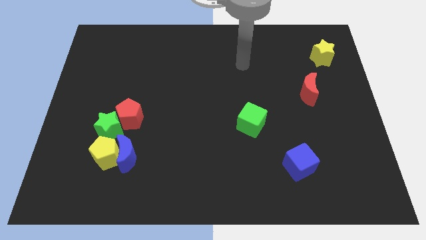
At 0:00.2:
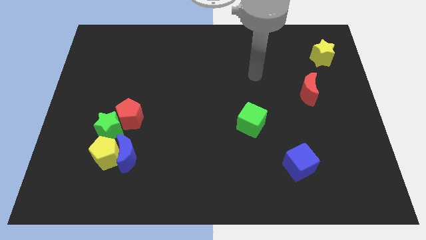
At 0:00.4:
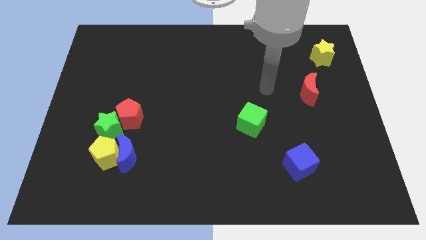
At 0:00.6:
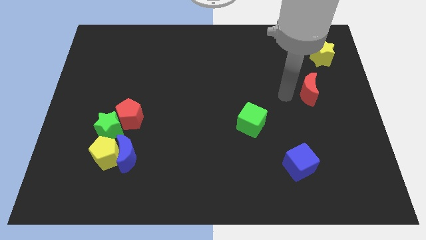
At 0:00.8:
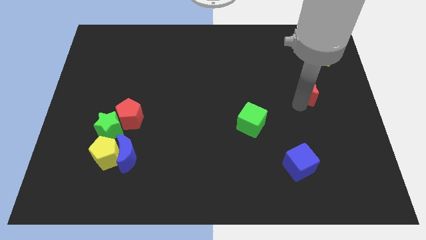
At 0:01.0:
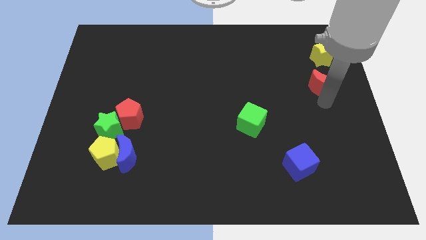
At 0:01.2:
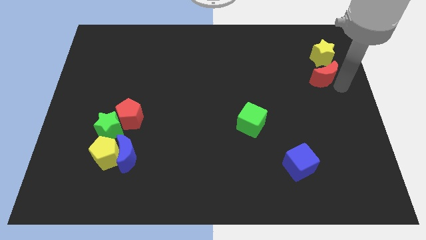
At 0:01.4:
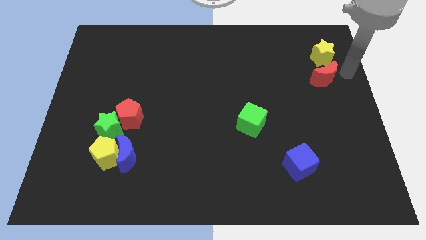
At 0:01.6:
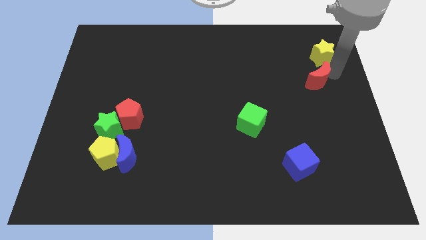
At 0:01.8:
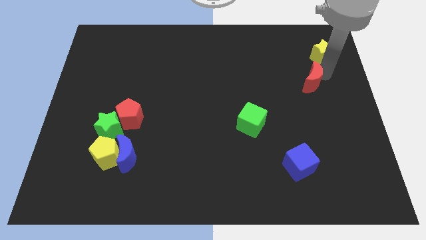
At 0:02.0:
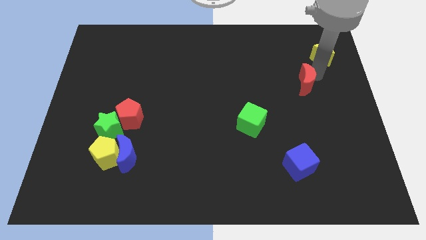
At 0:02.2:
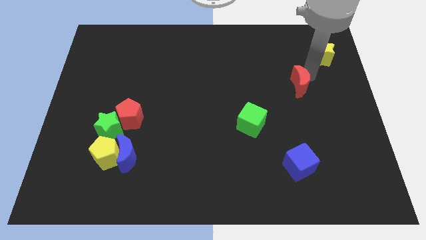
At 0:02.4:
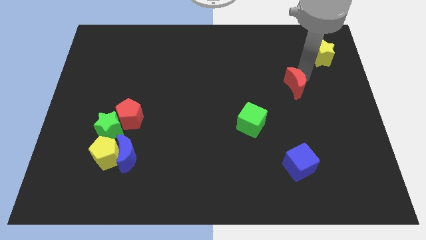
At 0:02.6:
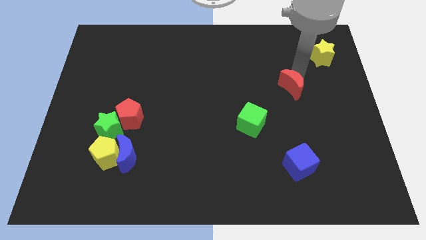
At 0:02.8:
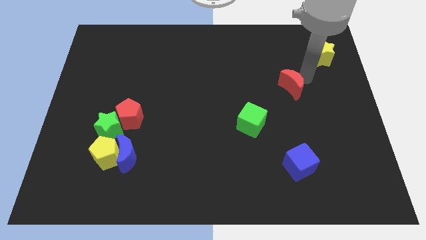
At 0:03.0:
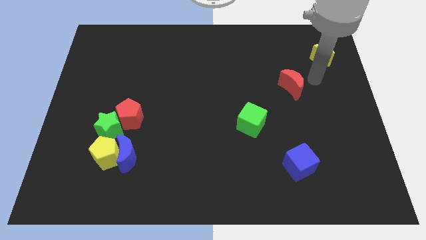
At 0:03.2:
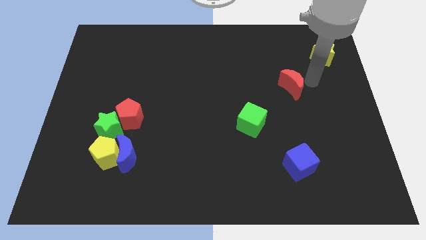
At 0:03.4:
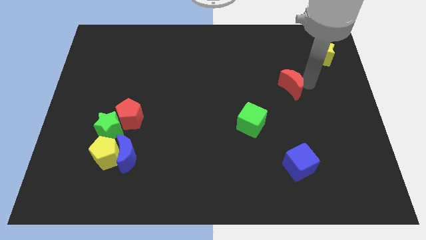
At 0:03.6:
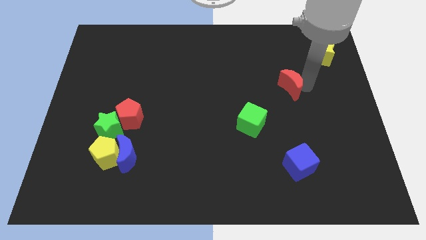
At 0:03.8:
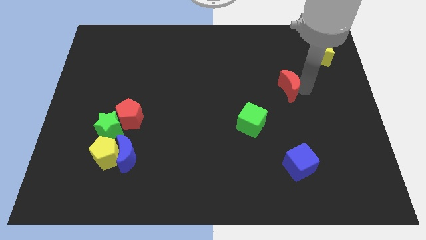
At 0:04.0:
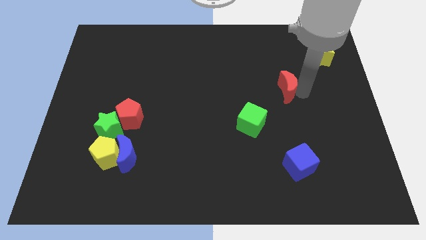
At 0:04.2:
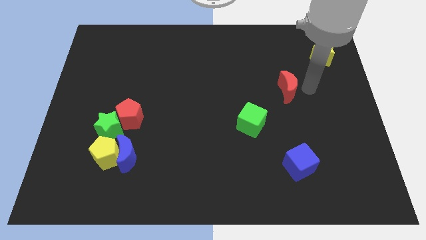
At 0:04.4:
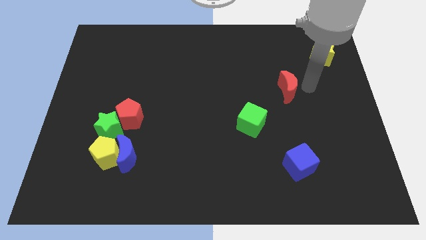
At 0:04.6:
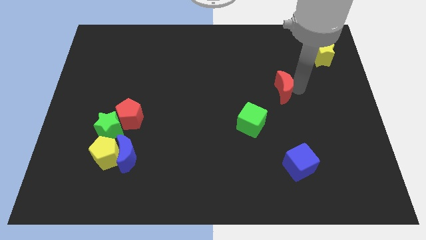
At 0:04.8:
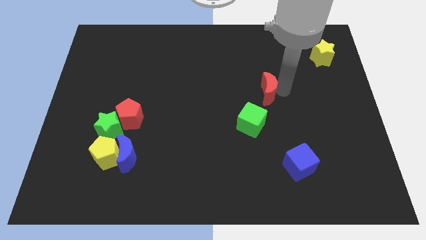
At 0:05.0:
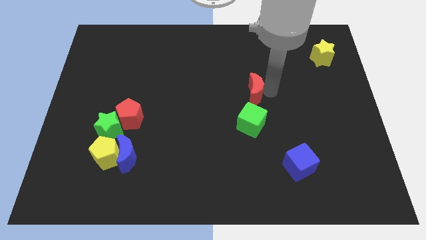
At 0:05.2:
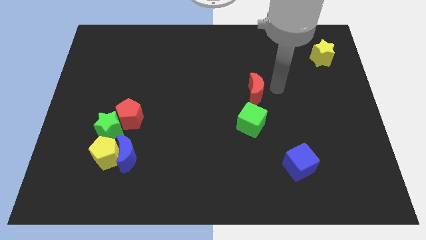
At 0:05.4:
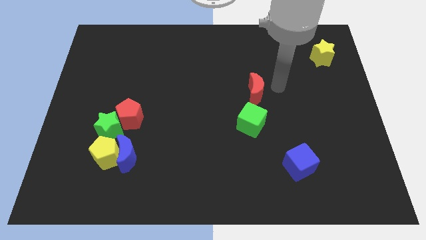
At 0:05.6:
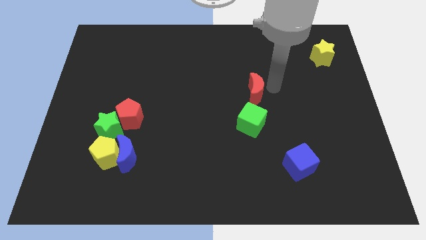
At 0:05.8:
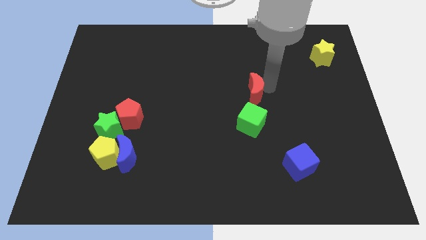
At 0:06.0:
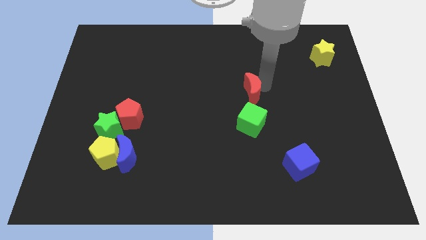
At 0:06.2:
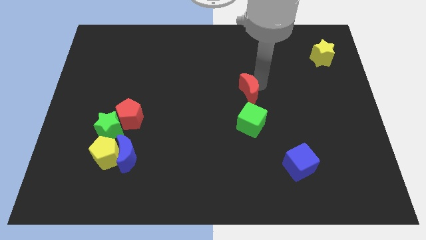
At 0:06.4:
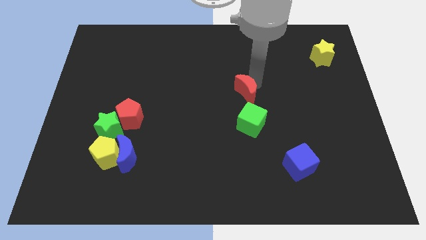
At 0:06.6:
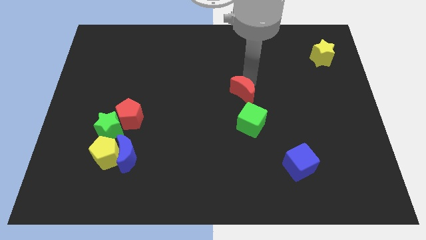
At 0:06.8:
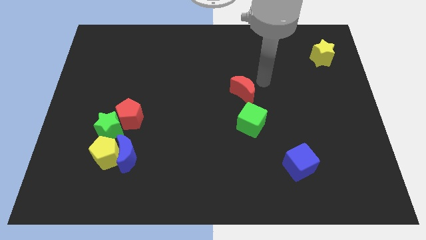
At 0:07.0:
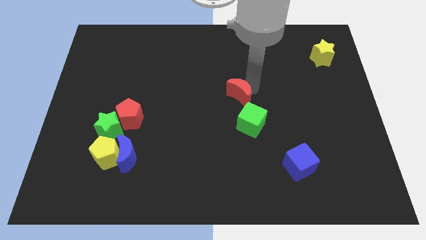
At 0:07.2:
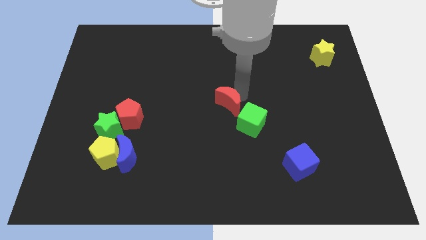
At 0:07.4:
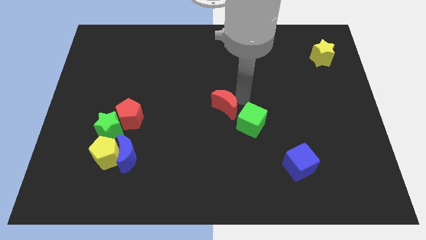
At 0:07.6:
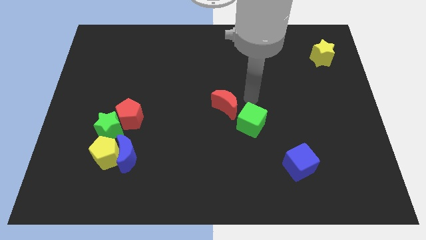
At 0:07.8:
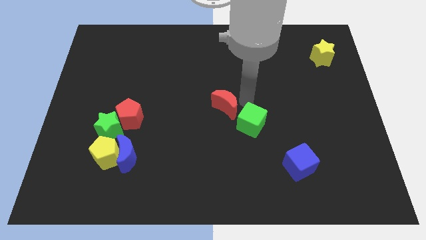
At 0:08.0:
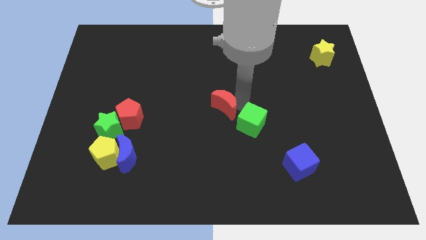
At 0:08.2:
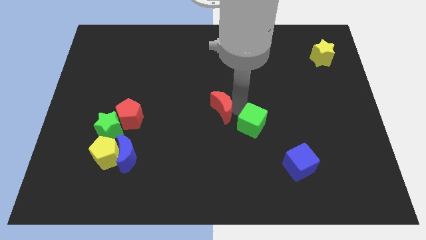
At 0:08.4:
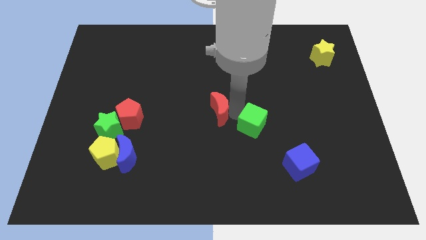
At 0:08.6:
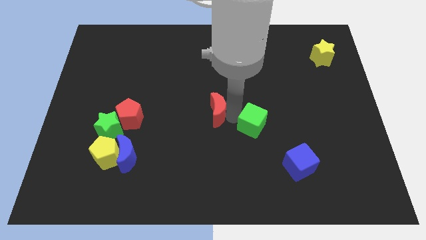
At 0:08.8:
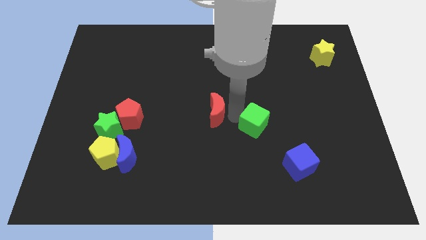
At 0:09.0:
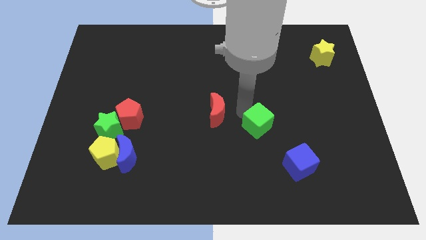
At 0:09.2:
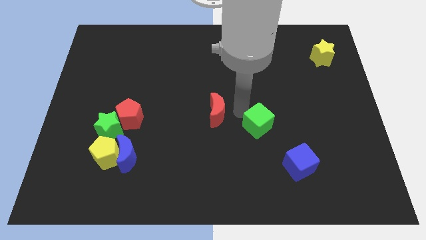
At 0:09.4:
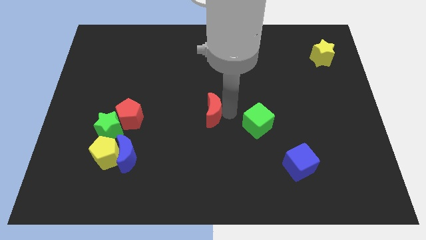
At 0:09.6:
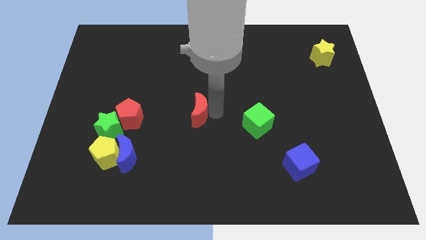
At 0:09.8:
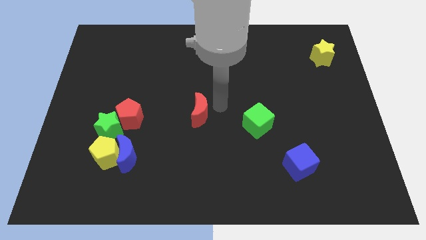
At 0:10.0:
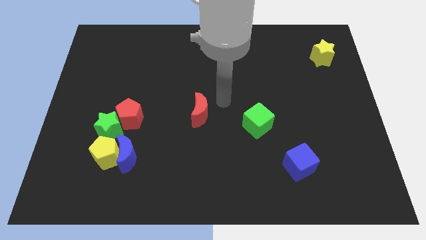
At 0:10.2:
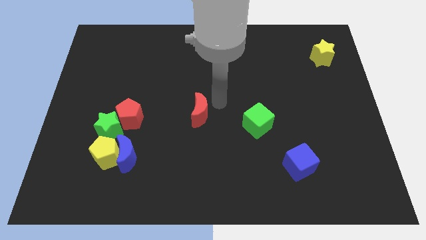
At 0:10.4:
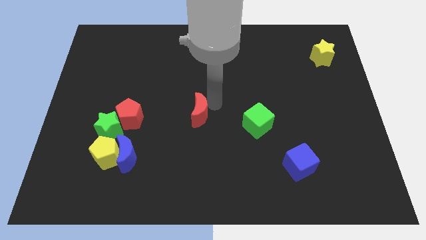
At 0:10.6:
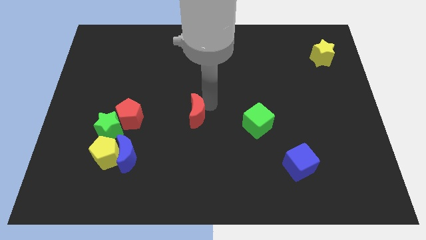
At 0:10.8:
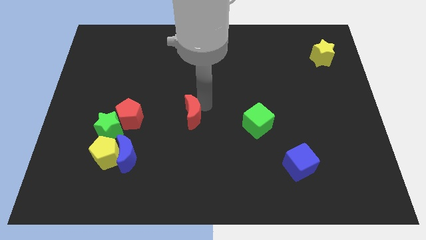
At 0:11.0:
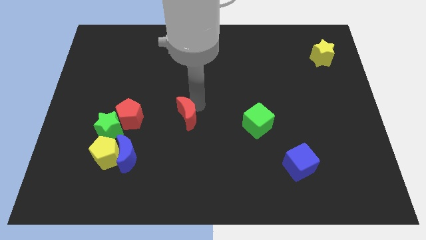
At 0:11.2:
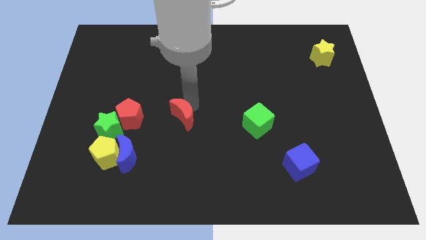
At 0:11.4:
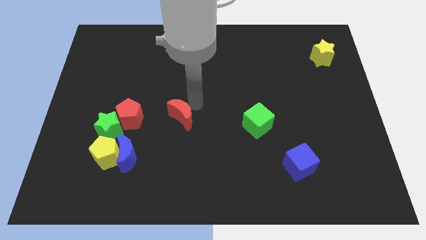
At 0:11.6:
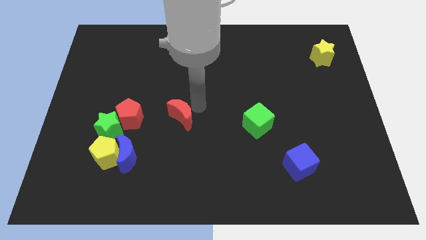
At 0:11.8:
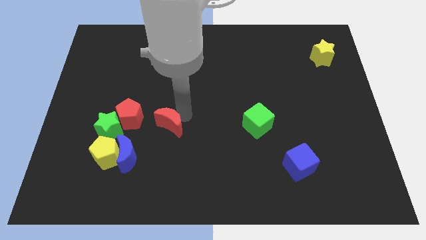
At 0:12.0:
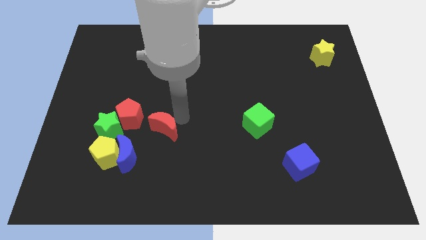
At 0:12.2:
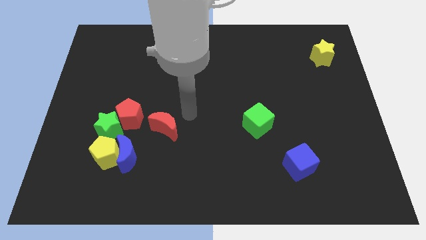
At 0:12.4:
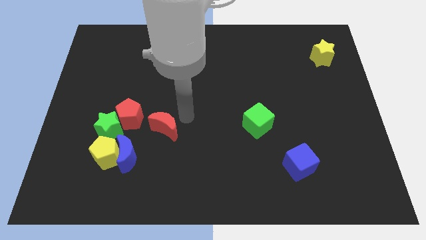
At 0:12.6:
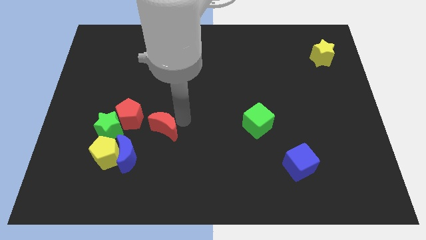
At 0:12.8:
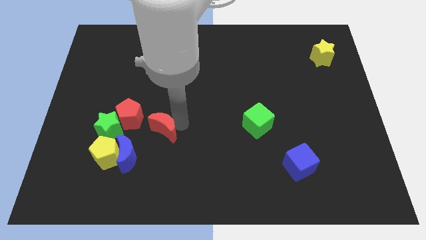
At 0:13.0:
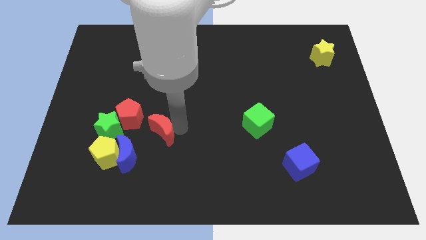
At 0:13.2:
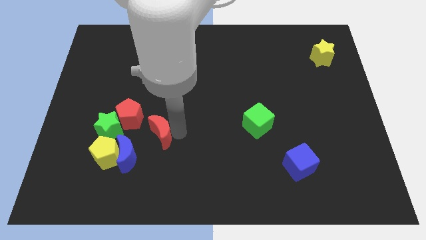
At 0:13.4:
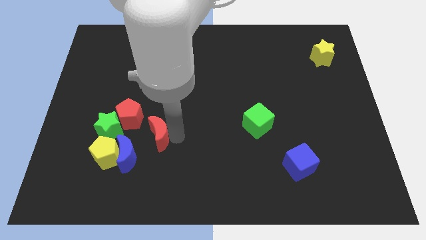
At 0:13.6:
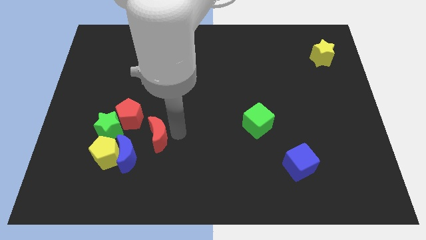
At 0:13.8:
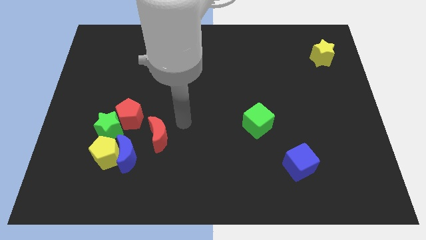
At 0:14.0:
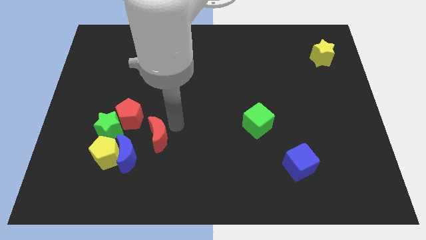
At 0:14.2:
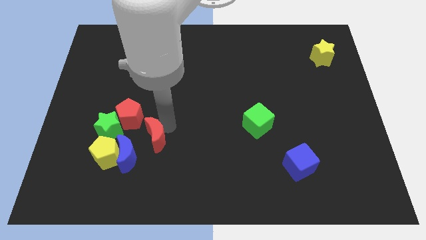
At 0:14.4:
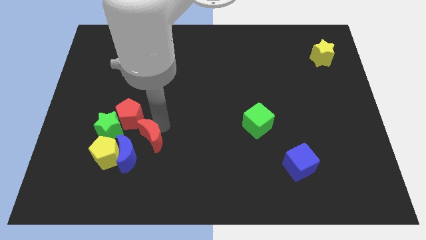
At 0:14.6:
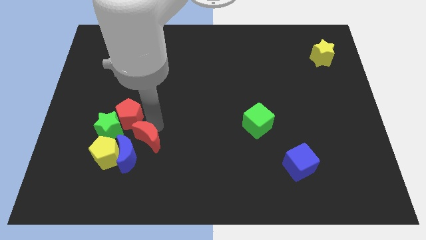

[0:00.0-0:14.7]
put the red moon towards the blue moon

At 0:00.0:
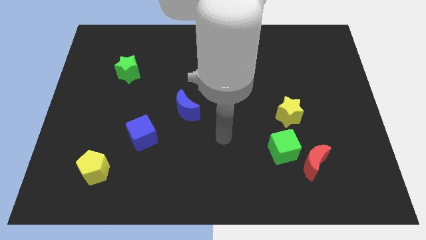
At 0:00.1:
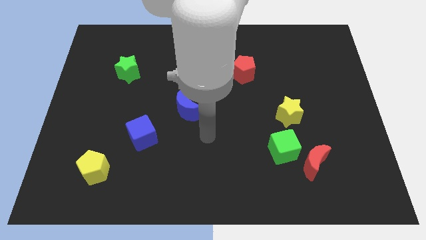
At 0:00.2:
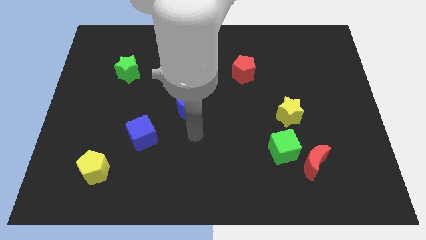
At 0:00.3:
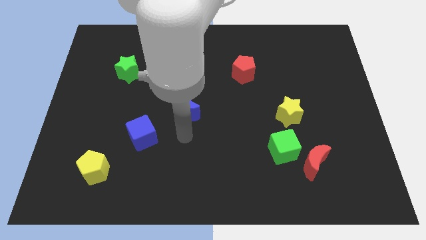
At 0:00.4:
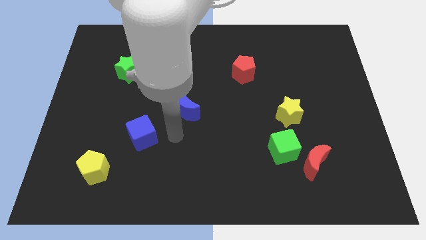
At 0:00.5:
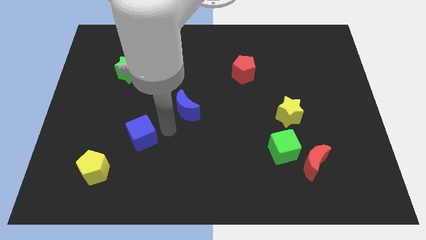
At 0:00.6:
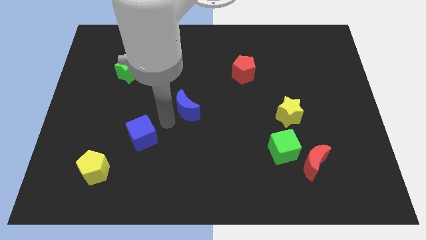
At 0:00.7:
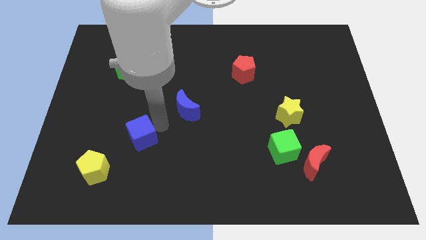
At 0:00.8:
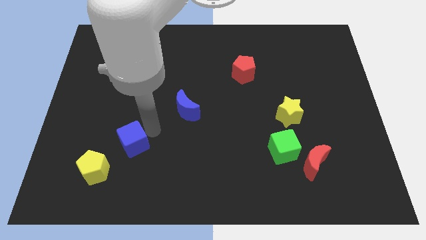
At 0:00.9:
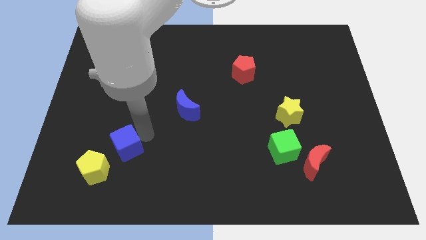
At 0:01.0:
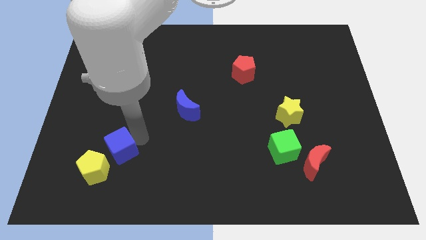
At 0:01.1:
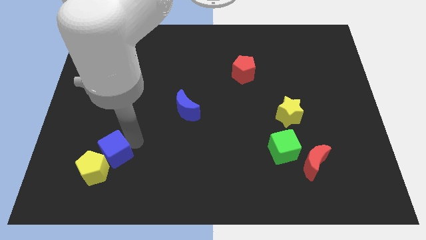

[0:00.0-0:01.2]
slide the blue cube next to the yellow pentagon
